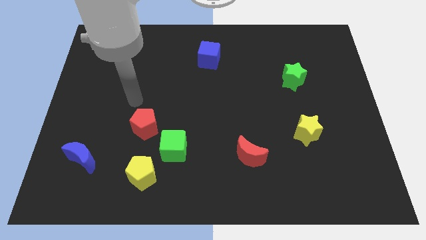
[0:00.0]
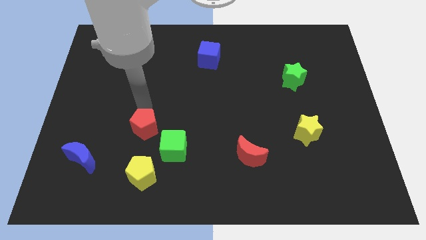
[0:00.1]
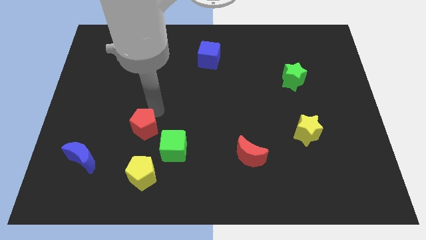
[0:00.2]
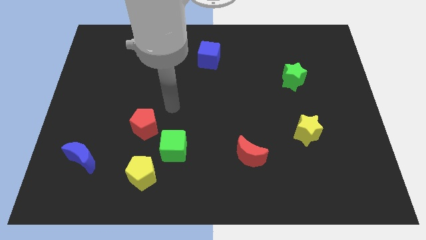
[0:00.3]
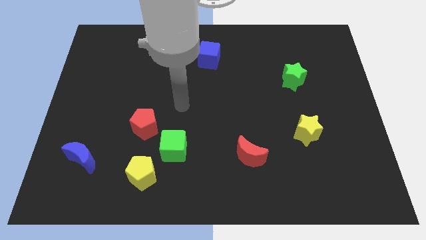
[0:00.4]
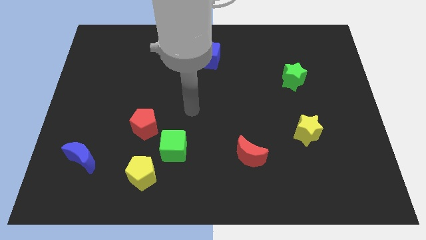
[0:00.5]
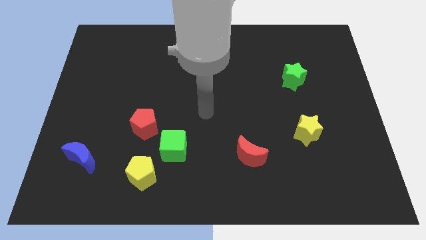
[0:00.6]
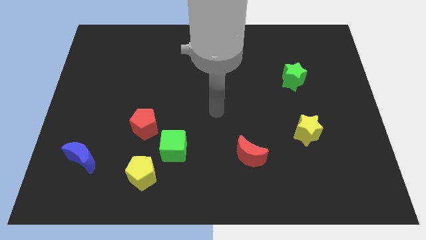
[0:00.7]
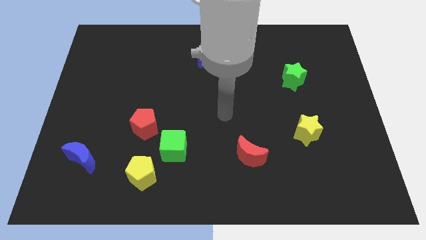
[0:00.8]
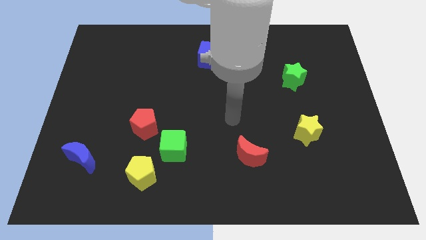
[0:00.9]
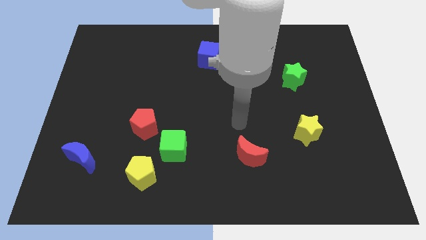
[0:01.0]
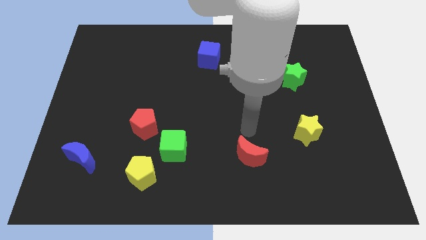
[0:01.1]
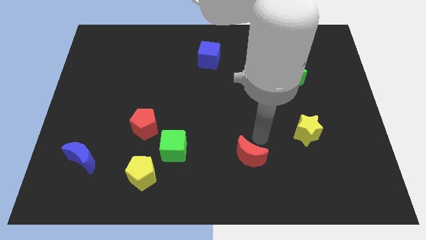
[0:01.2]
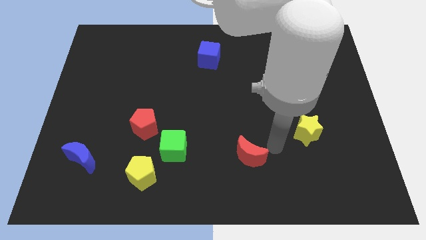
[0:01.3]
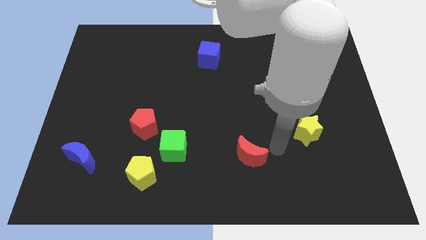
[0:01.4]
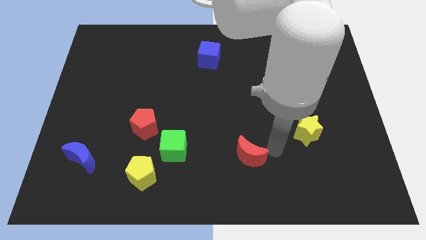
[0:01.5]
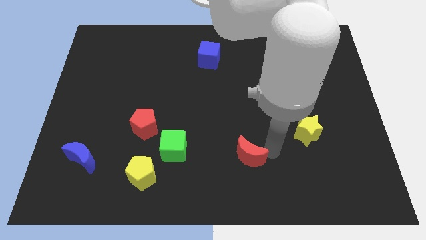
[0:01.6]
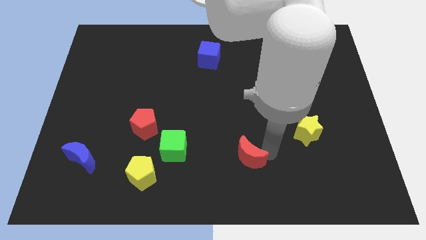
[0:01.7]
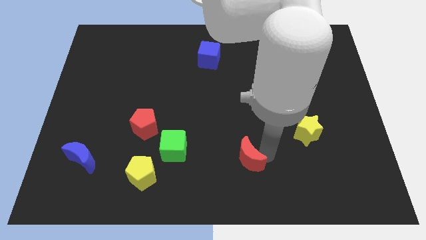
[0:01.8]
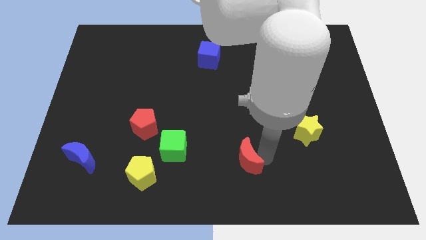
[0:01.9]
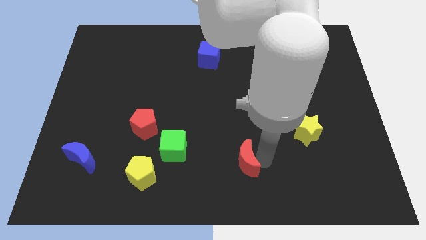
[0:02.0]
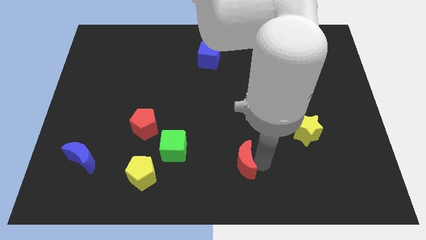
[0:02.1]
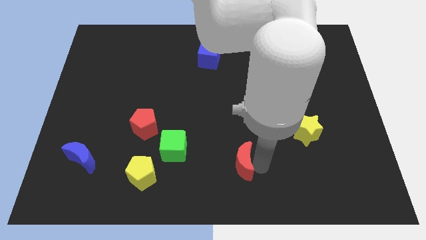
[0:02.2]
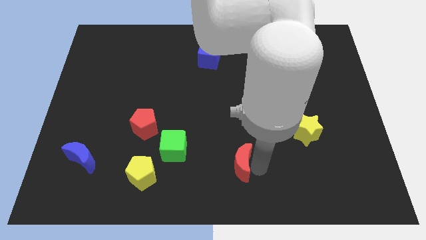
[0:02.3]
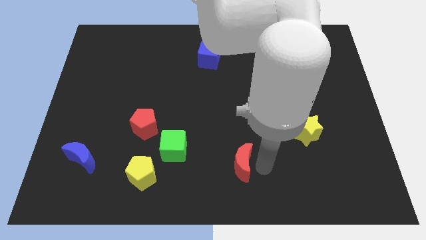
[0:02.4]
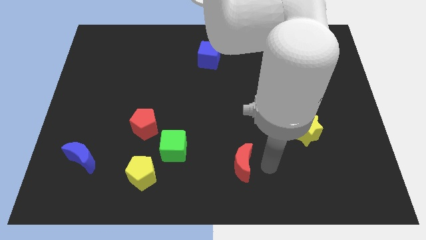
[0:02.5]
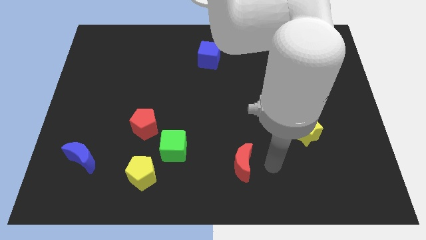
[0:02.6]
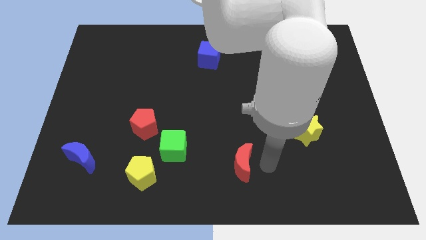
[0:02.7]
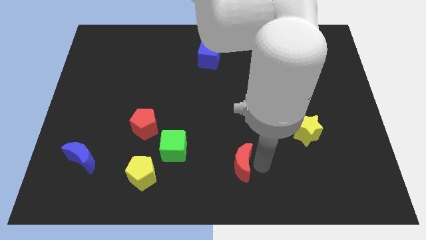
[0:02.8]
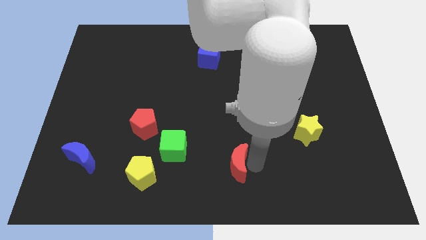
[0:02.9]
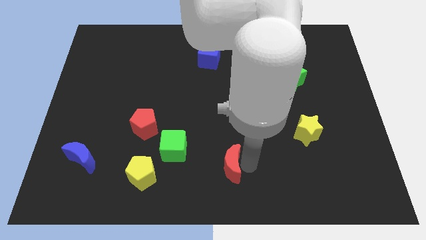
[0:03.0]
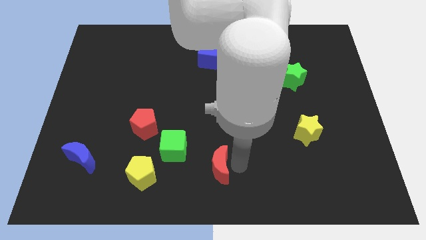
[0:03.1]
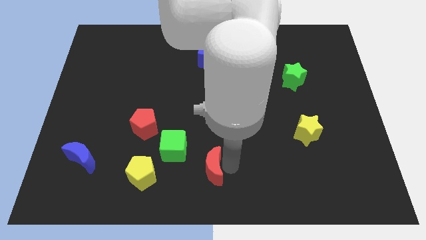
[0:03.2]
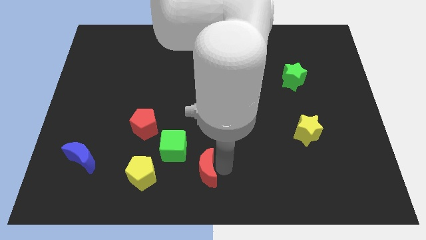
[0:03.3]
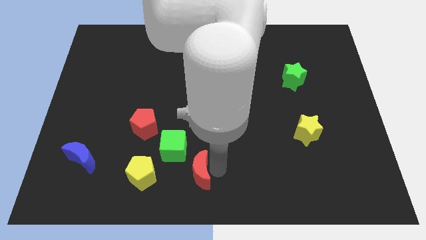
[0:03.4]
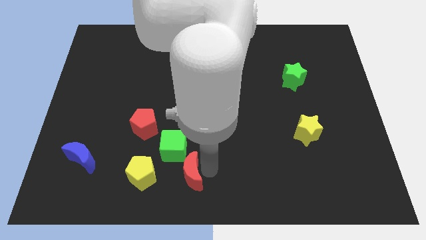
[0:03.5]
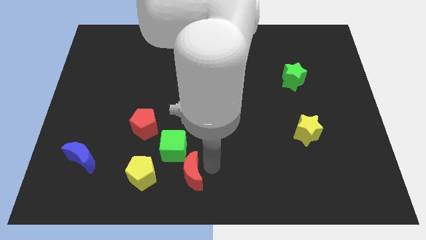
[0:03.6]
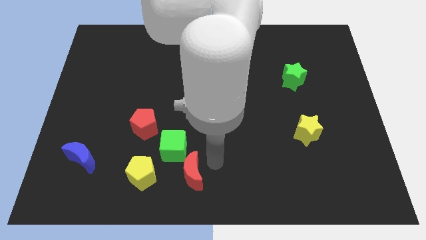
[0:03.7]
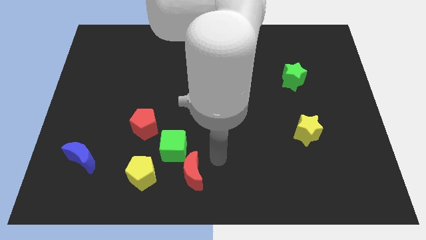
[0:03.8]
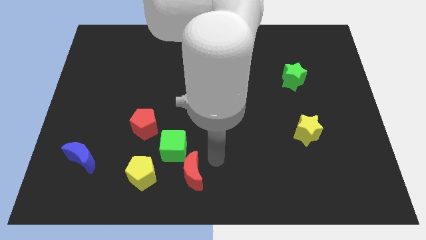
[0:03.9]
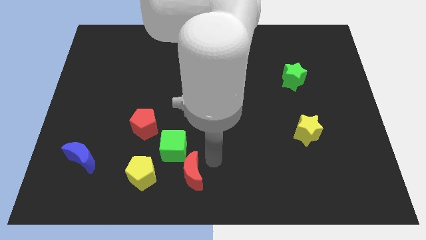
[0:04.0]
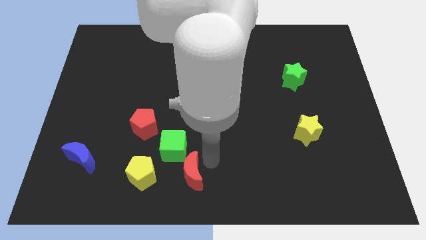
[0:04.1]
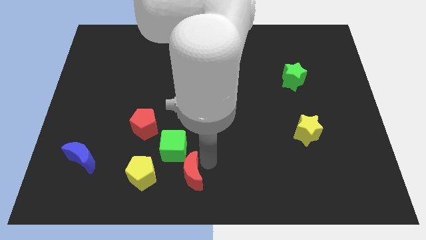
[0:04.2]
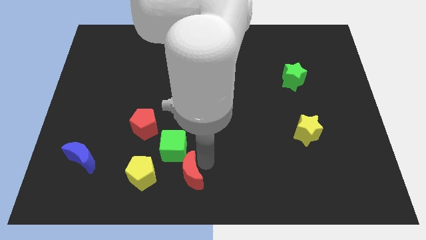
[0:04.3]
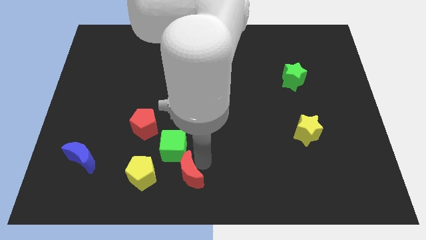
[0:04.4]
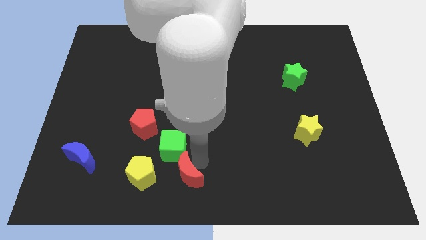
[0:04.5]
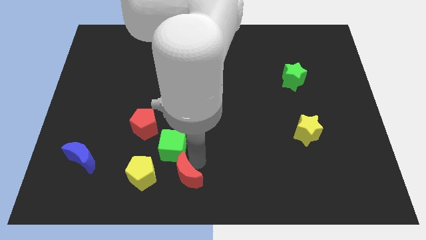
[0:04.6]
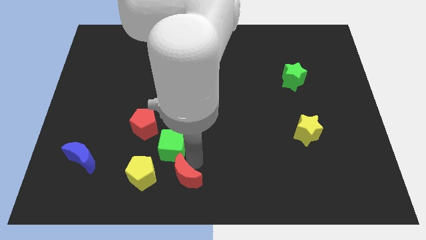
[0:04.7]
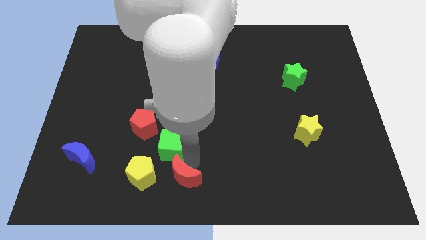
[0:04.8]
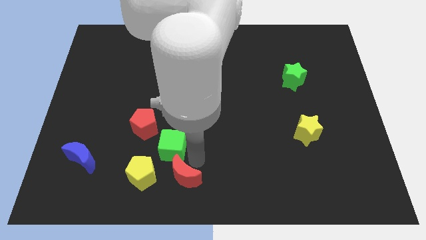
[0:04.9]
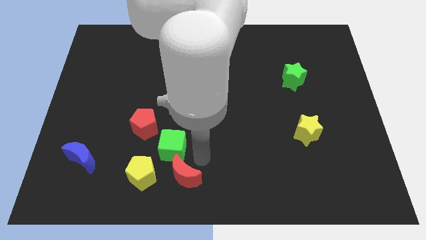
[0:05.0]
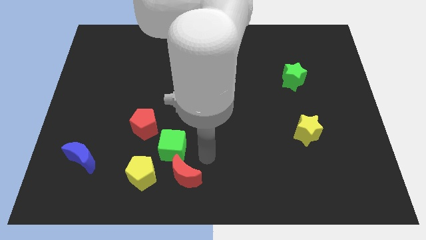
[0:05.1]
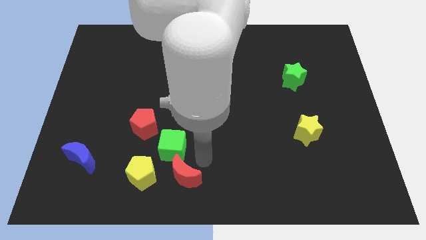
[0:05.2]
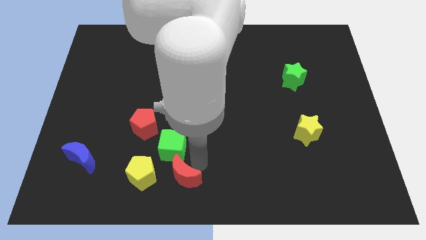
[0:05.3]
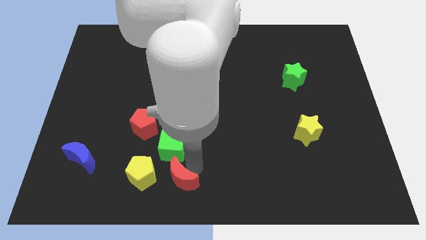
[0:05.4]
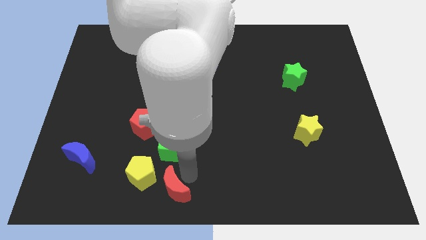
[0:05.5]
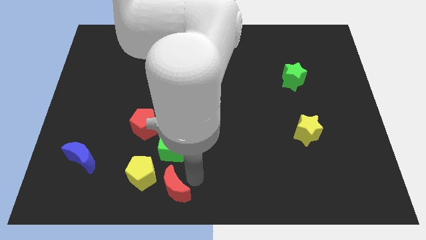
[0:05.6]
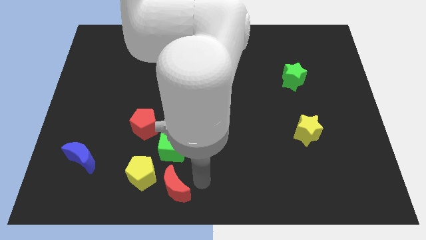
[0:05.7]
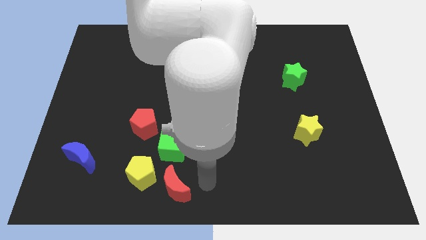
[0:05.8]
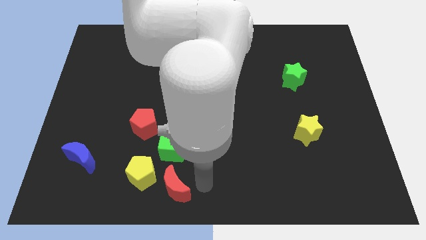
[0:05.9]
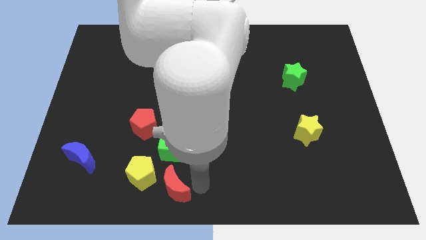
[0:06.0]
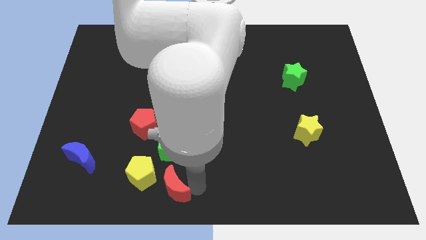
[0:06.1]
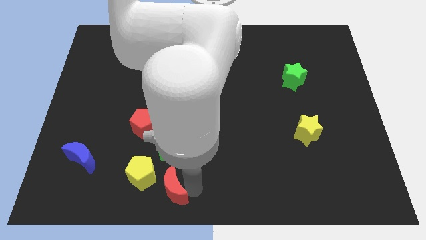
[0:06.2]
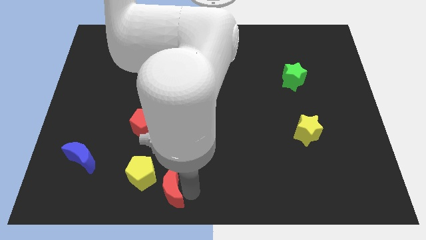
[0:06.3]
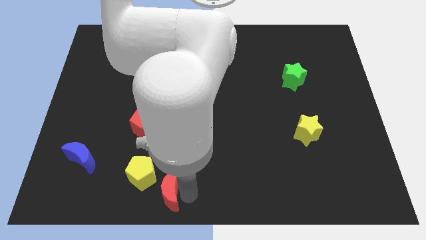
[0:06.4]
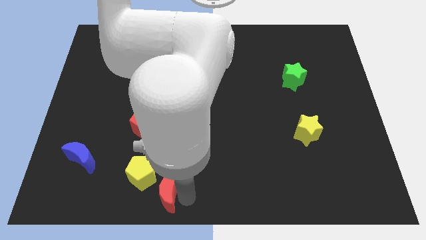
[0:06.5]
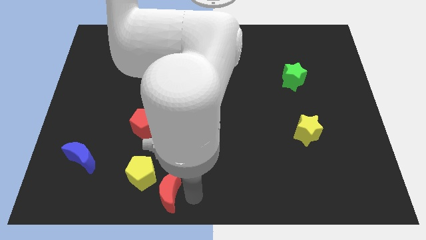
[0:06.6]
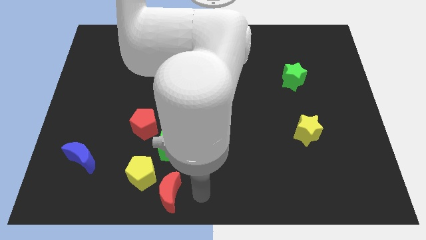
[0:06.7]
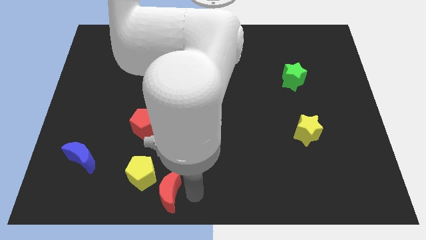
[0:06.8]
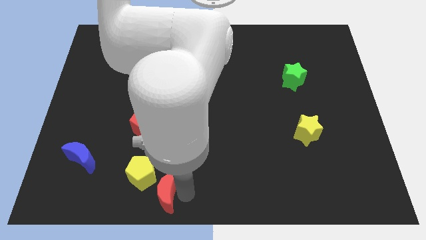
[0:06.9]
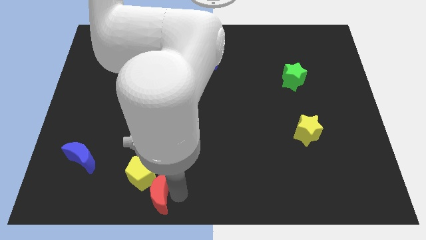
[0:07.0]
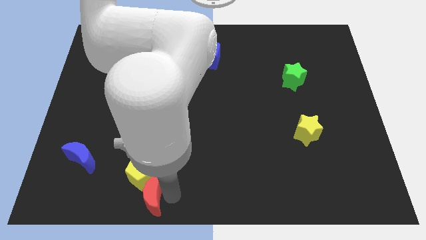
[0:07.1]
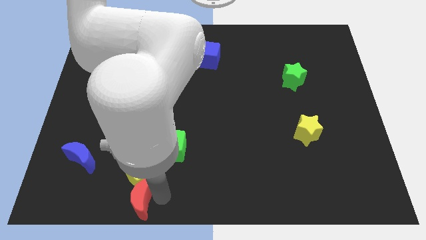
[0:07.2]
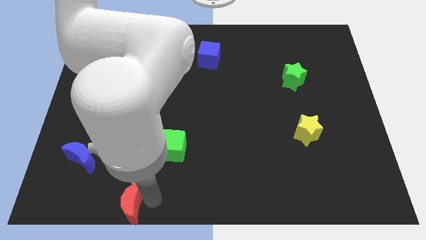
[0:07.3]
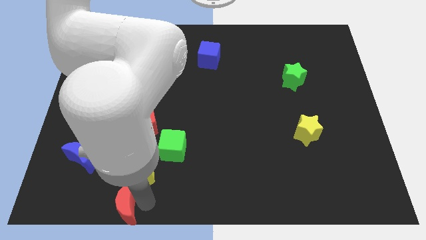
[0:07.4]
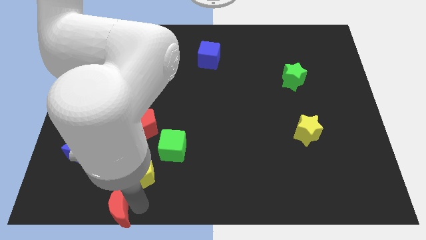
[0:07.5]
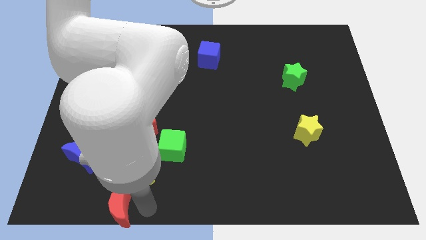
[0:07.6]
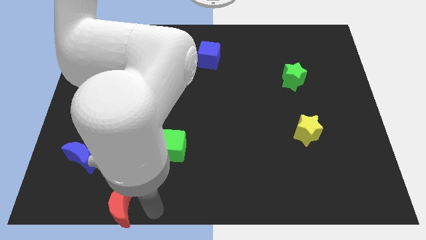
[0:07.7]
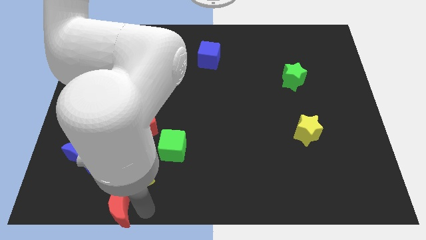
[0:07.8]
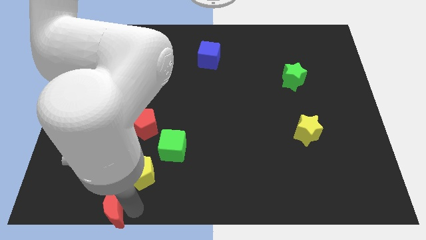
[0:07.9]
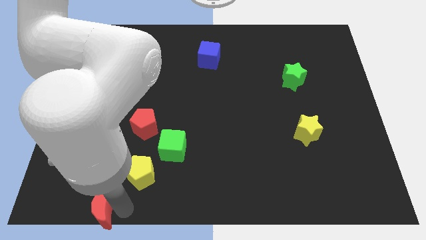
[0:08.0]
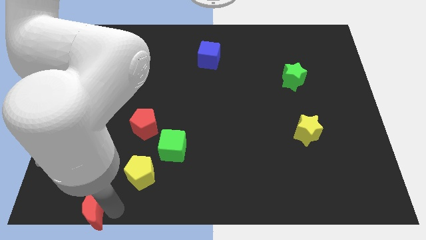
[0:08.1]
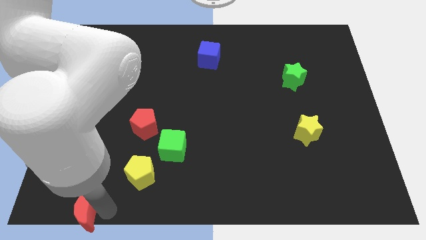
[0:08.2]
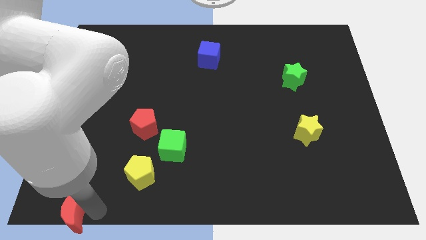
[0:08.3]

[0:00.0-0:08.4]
move the red moon to the bottom left of the board
